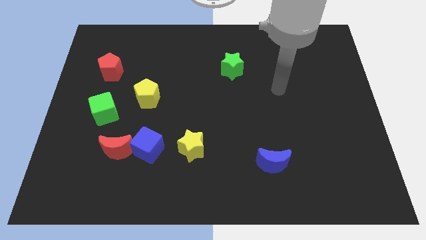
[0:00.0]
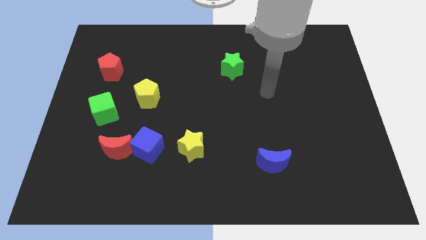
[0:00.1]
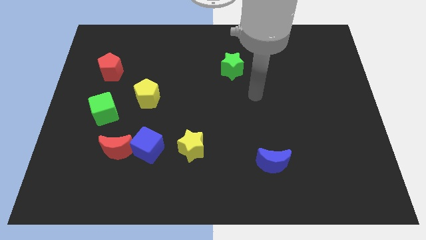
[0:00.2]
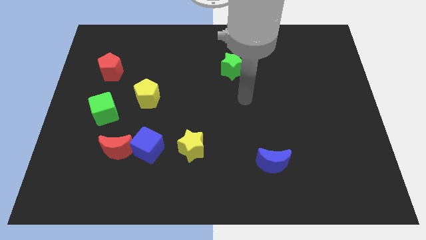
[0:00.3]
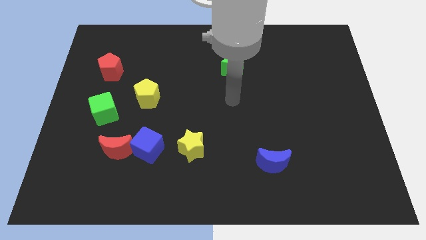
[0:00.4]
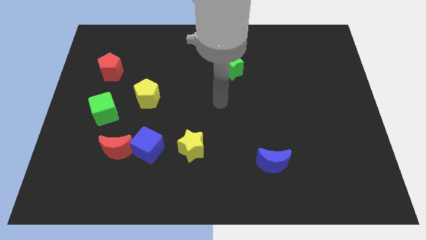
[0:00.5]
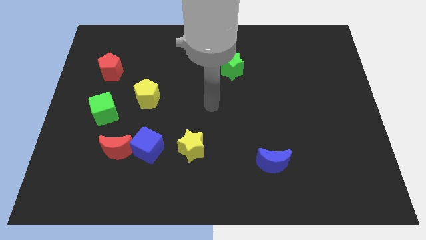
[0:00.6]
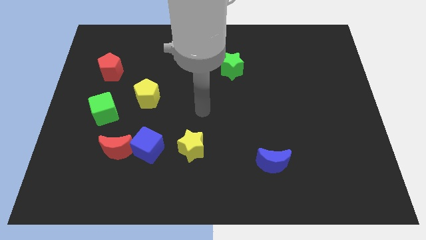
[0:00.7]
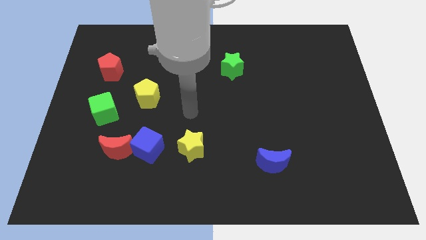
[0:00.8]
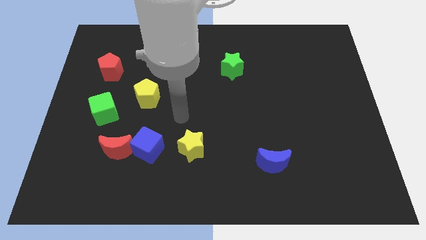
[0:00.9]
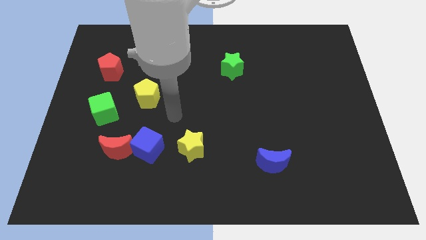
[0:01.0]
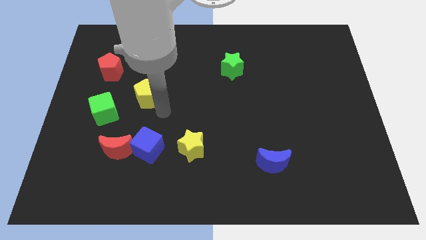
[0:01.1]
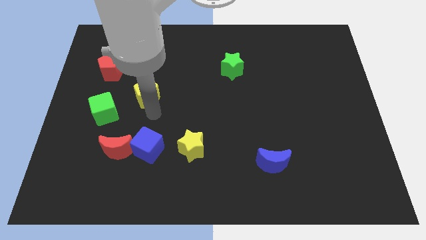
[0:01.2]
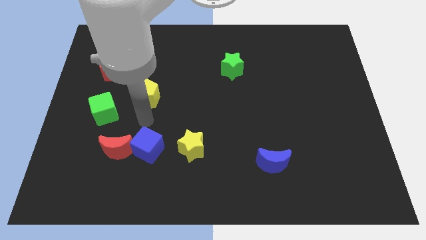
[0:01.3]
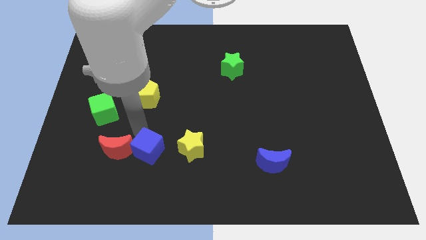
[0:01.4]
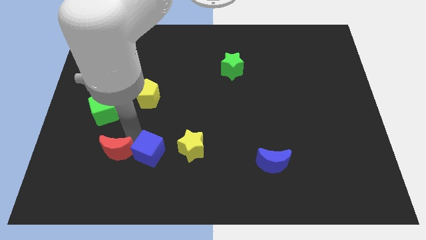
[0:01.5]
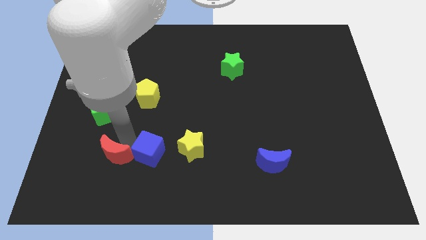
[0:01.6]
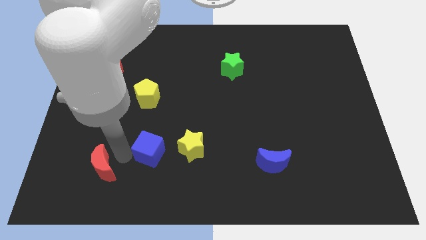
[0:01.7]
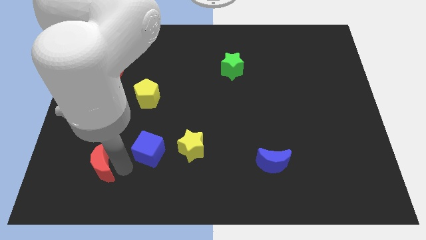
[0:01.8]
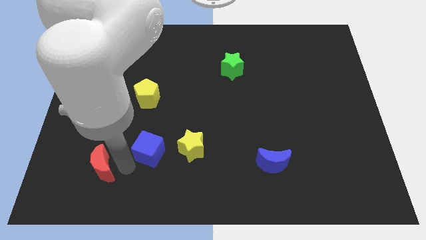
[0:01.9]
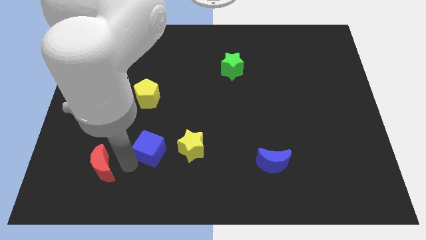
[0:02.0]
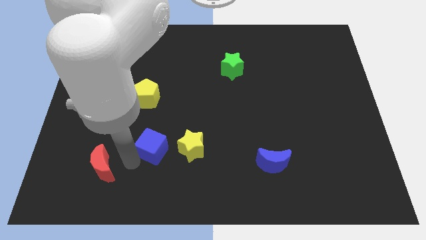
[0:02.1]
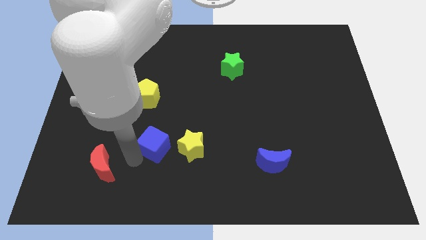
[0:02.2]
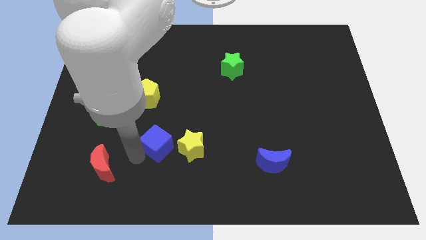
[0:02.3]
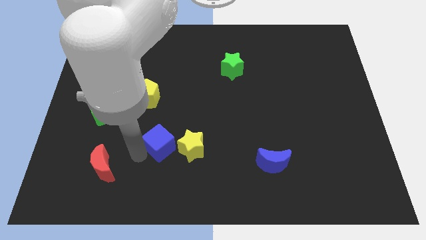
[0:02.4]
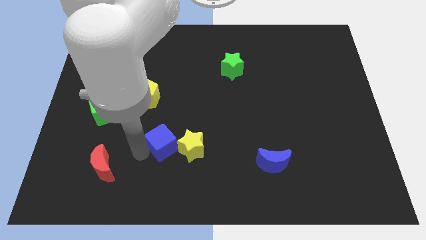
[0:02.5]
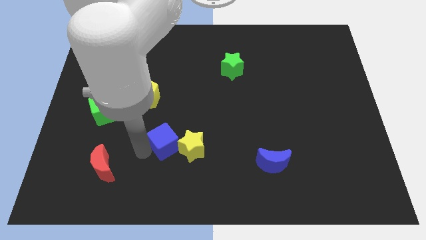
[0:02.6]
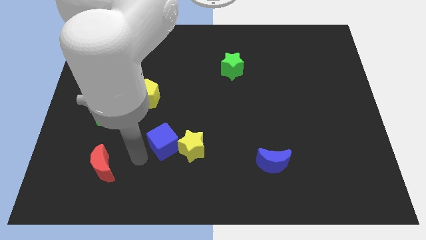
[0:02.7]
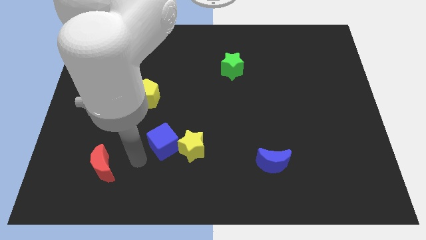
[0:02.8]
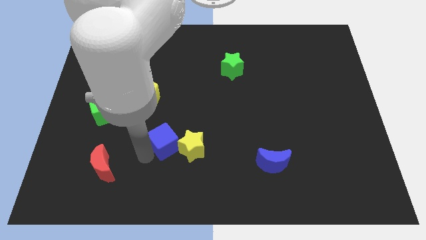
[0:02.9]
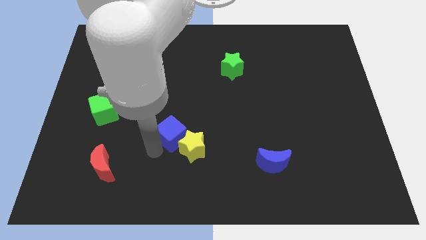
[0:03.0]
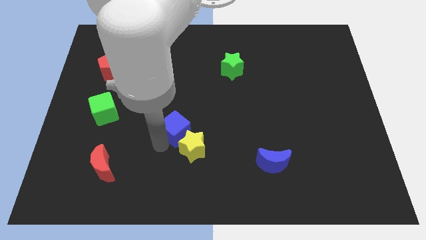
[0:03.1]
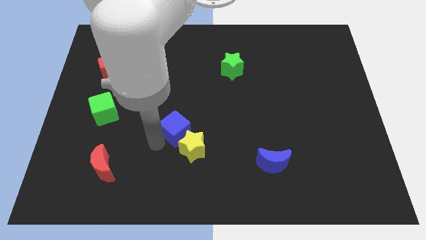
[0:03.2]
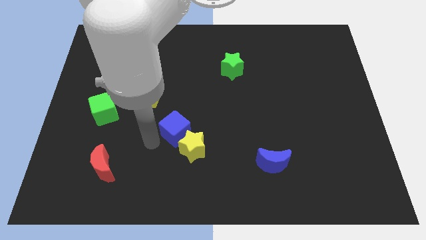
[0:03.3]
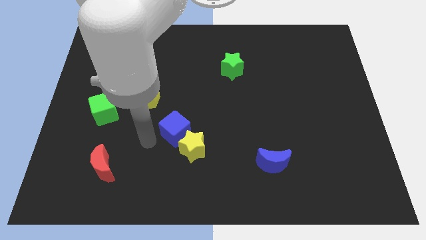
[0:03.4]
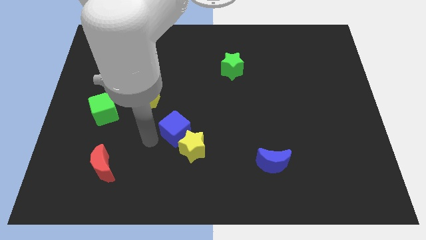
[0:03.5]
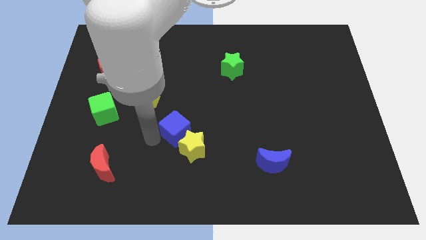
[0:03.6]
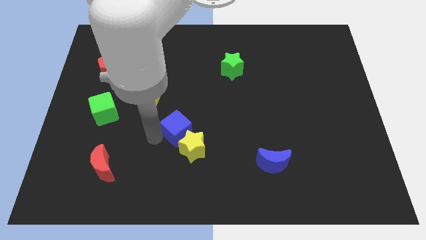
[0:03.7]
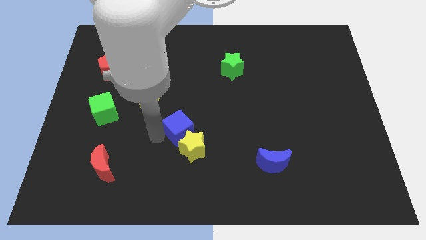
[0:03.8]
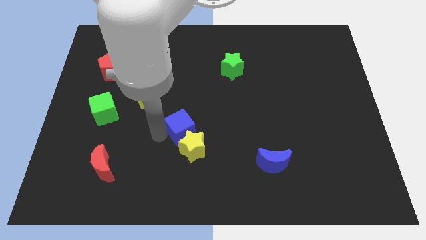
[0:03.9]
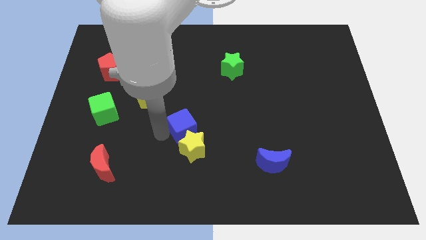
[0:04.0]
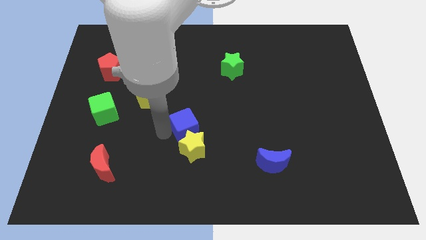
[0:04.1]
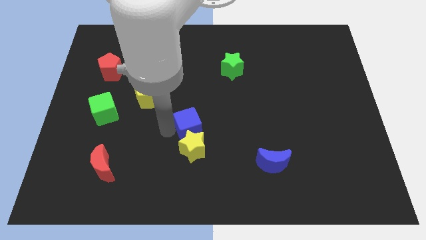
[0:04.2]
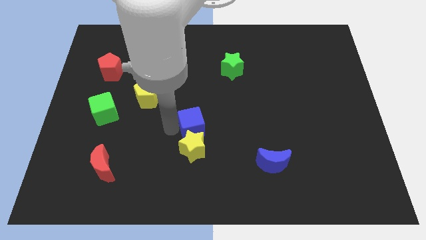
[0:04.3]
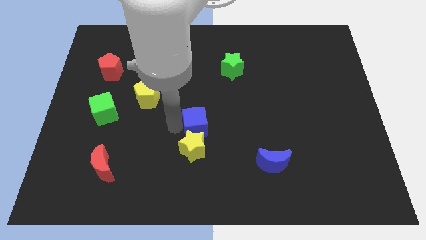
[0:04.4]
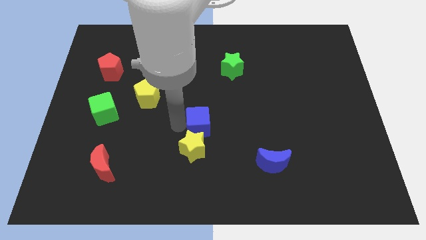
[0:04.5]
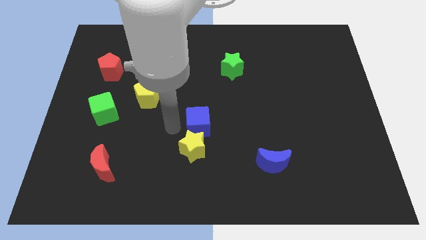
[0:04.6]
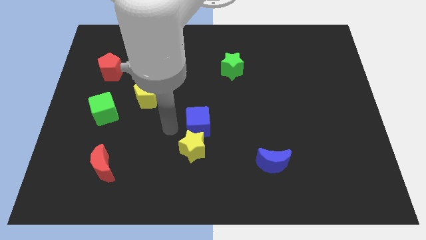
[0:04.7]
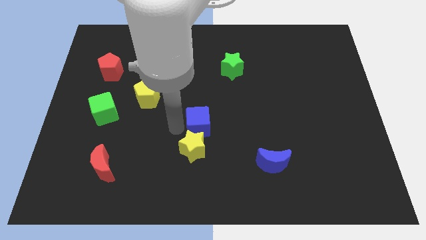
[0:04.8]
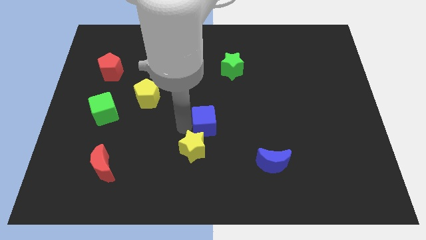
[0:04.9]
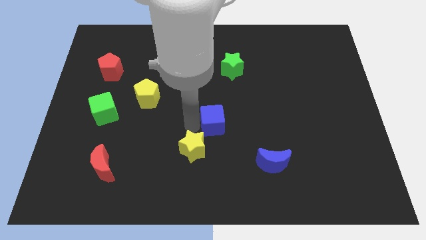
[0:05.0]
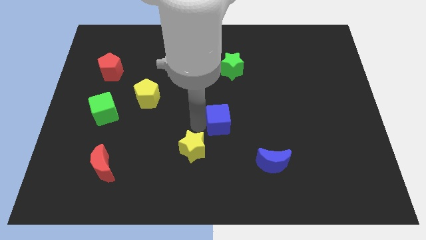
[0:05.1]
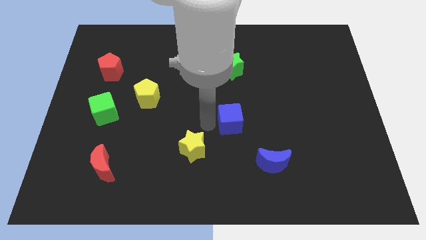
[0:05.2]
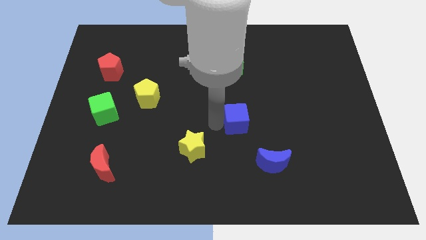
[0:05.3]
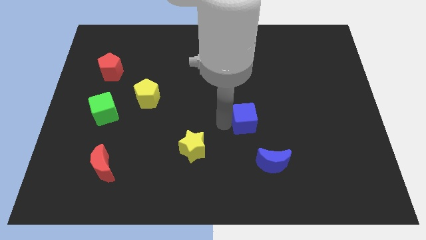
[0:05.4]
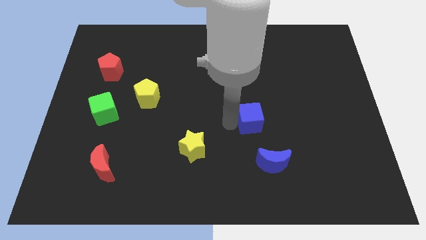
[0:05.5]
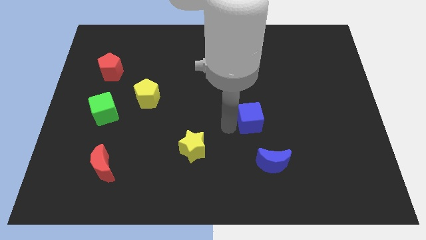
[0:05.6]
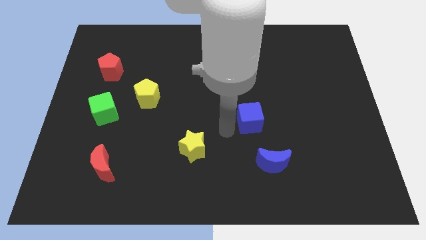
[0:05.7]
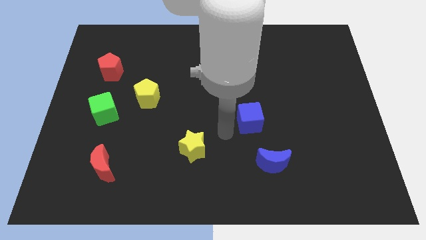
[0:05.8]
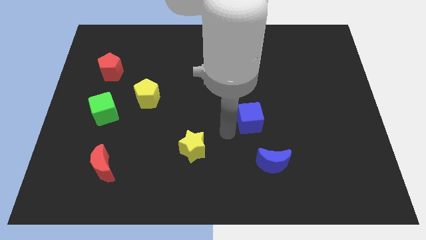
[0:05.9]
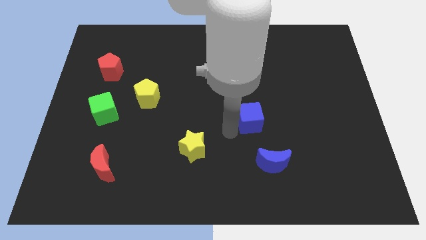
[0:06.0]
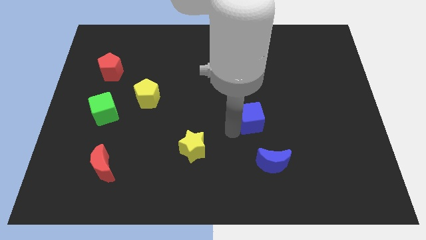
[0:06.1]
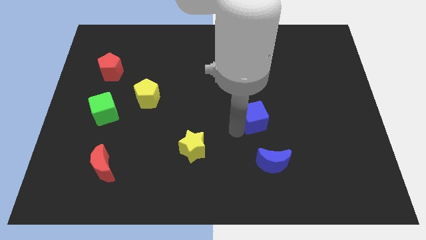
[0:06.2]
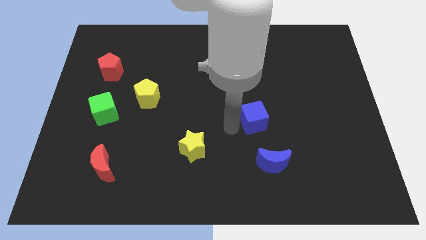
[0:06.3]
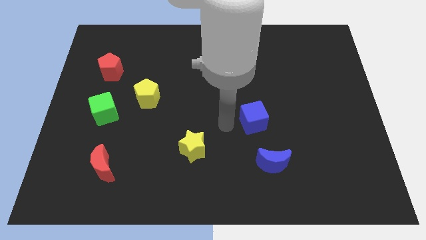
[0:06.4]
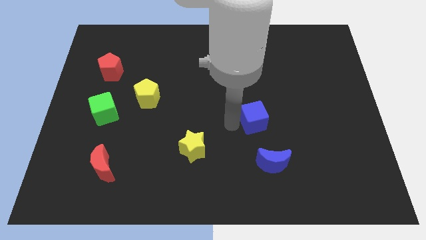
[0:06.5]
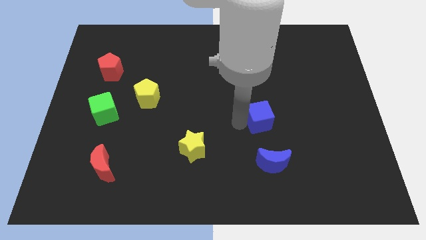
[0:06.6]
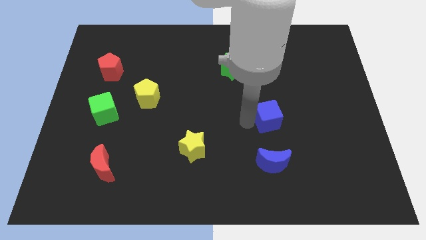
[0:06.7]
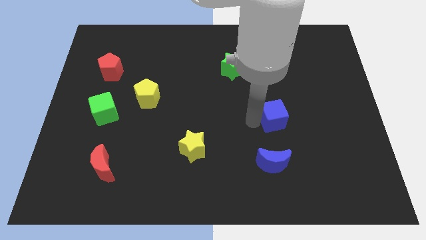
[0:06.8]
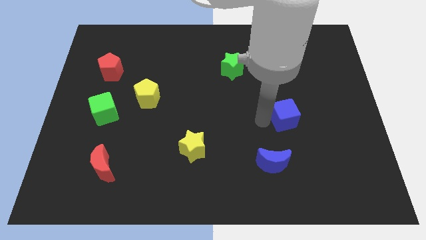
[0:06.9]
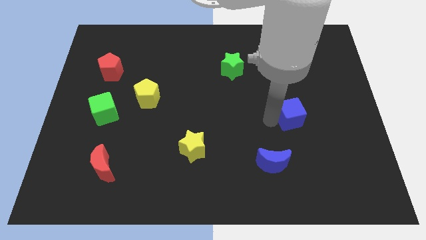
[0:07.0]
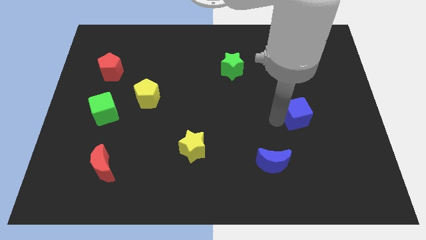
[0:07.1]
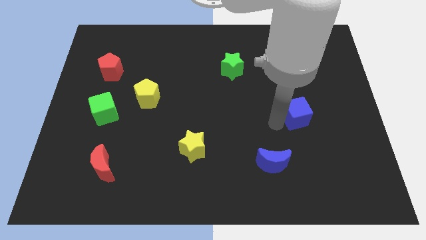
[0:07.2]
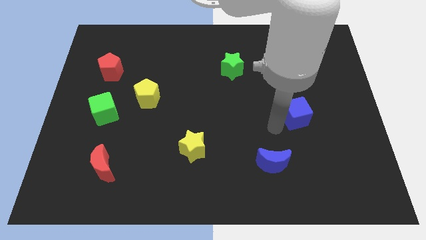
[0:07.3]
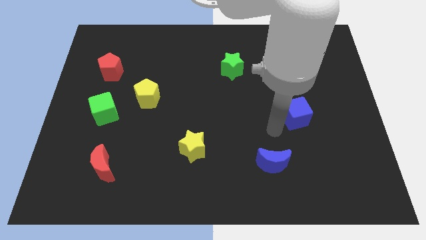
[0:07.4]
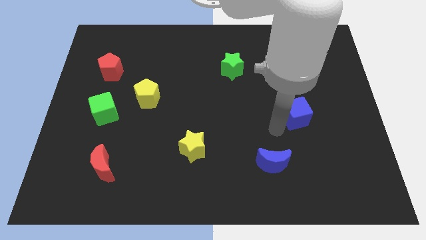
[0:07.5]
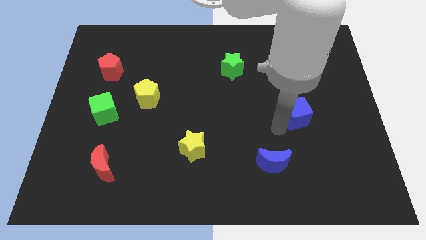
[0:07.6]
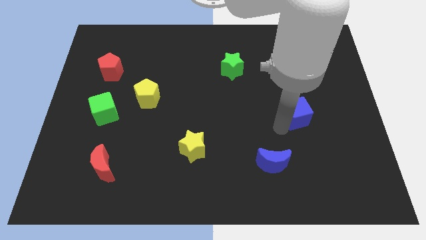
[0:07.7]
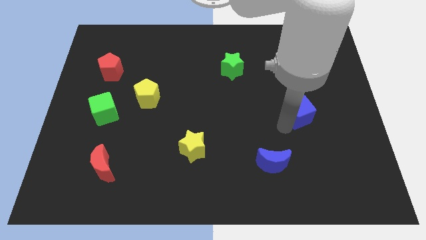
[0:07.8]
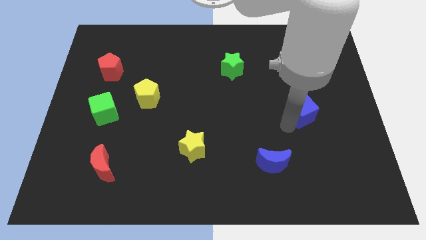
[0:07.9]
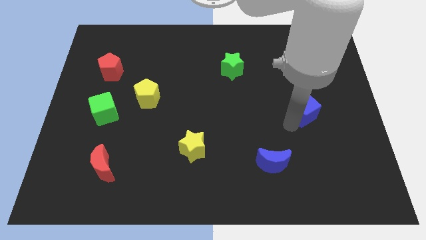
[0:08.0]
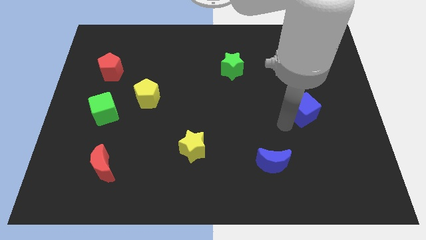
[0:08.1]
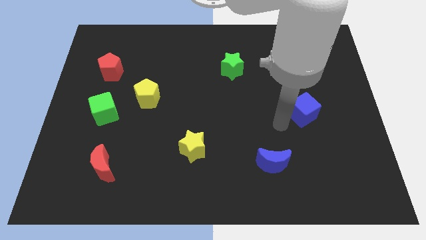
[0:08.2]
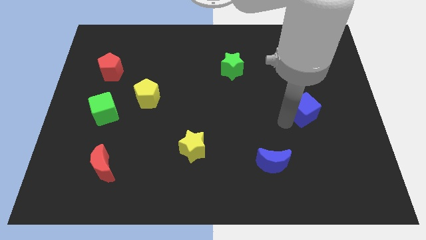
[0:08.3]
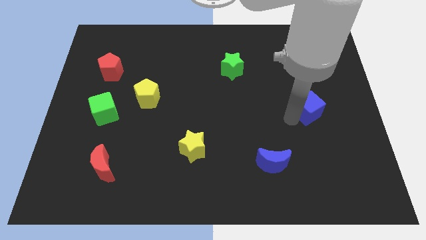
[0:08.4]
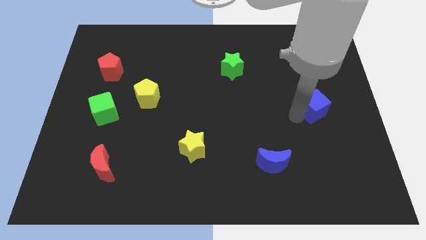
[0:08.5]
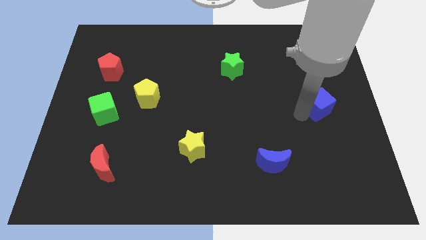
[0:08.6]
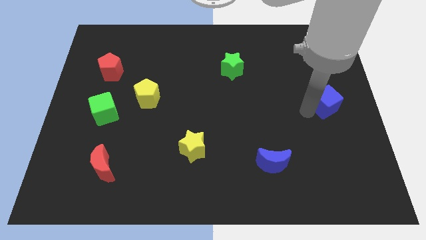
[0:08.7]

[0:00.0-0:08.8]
put the blue cube to the right side of the board
